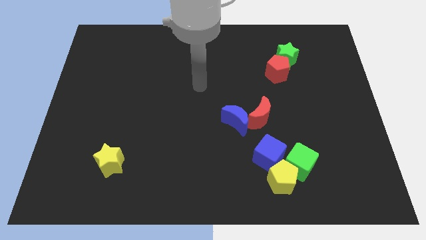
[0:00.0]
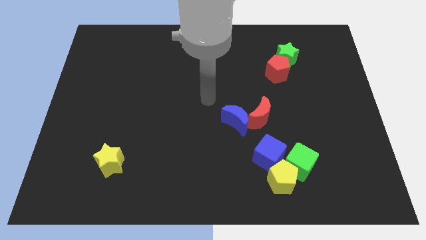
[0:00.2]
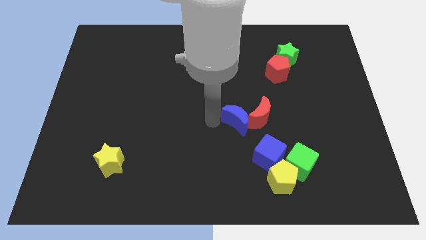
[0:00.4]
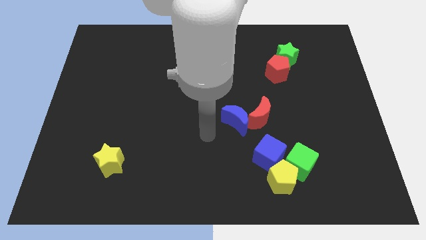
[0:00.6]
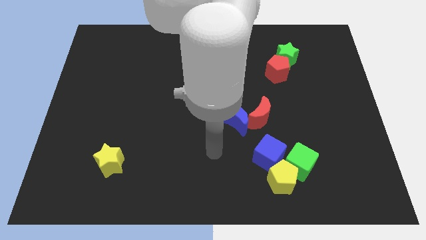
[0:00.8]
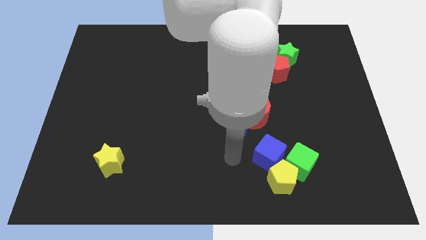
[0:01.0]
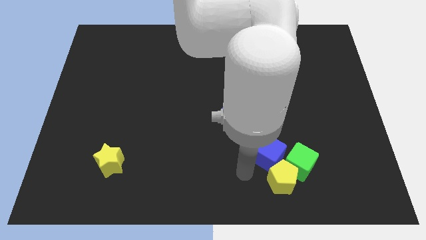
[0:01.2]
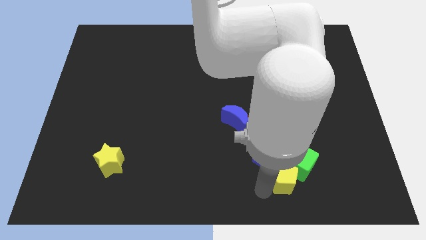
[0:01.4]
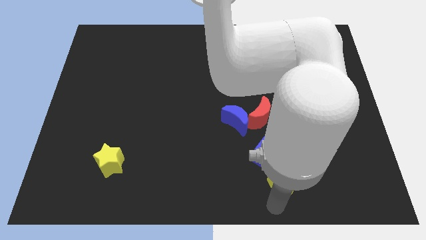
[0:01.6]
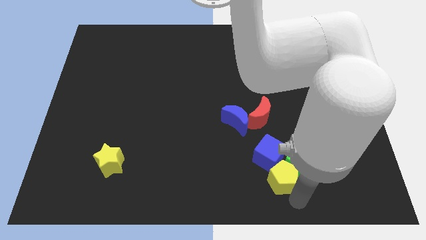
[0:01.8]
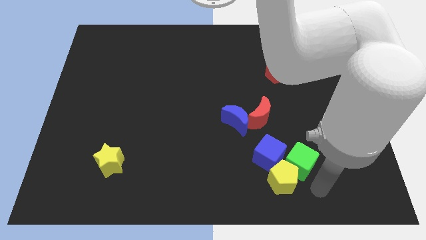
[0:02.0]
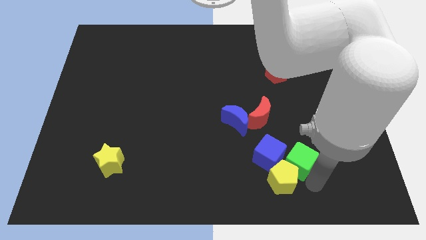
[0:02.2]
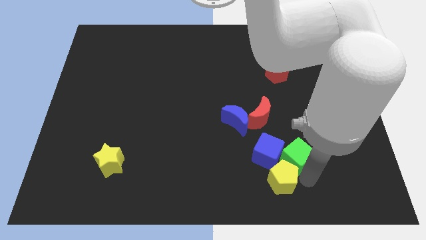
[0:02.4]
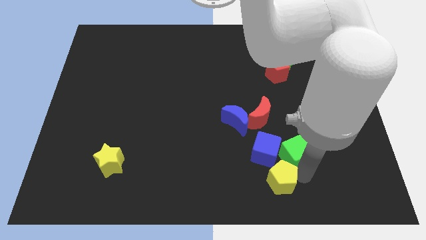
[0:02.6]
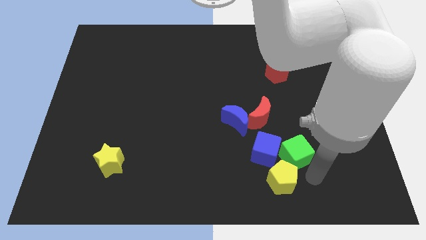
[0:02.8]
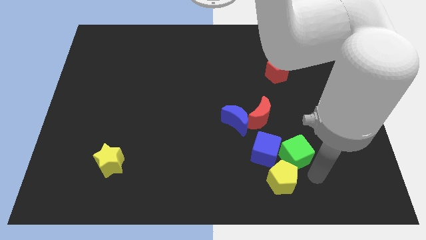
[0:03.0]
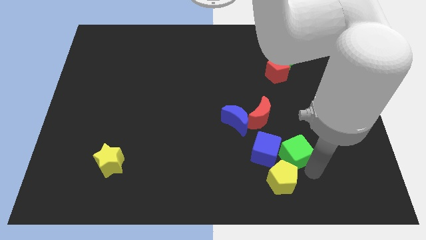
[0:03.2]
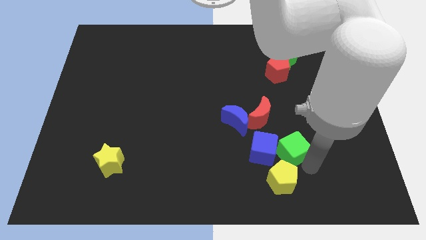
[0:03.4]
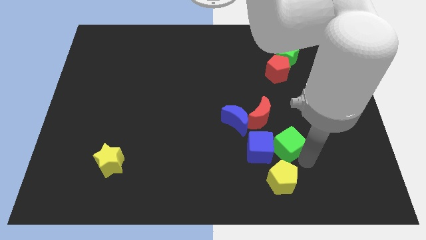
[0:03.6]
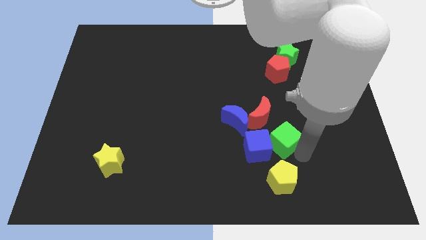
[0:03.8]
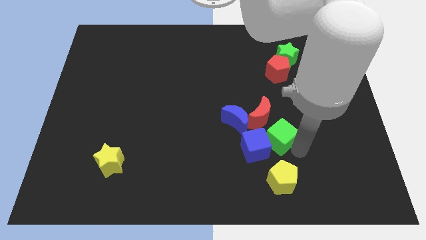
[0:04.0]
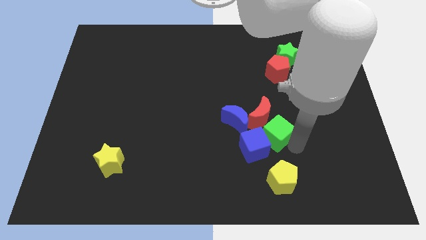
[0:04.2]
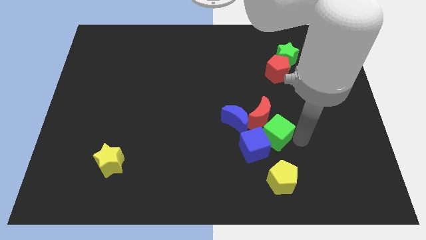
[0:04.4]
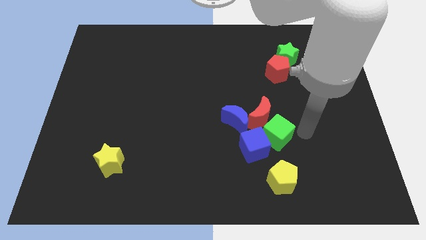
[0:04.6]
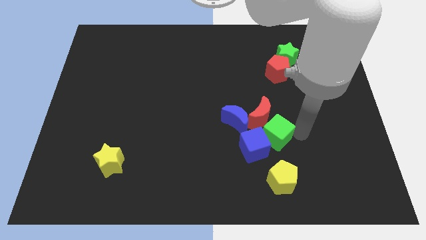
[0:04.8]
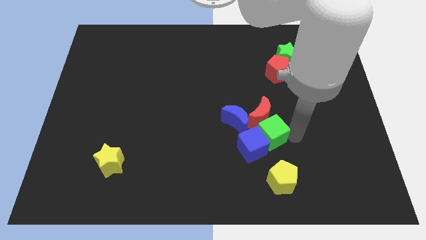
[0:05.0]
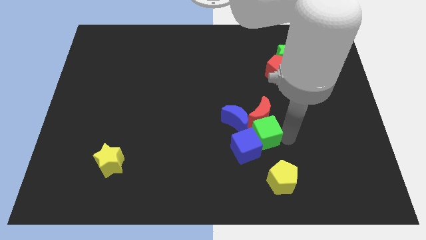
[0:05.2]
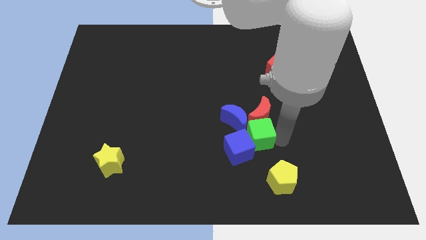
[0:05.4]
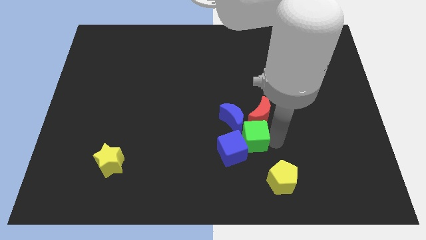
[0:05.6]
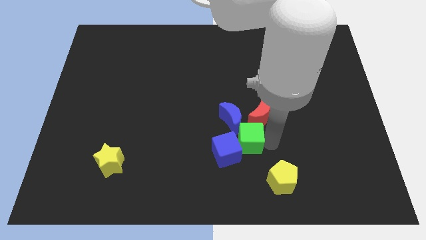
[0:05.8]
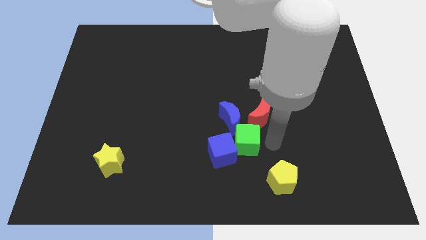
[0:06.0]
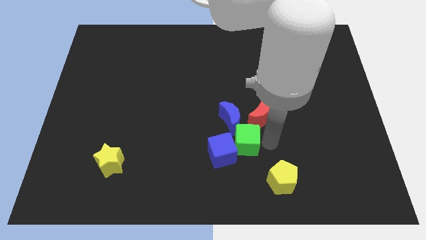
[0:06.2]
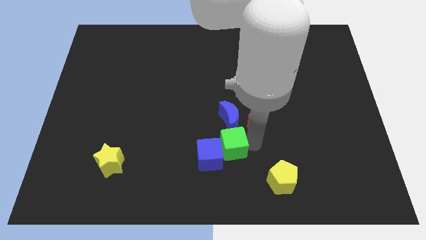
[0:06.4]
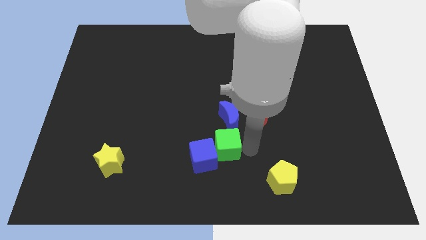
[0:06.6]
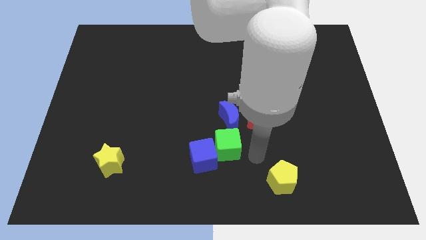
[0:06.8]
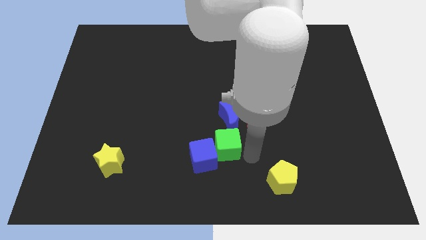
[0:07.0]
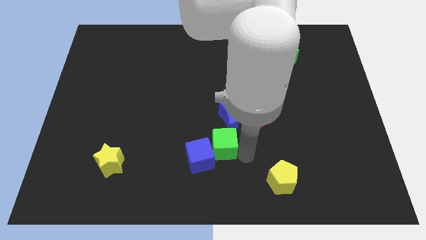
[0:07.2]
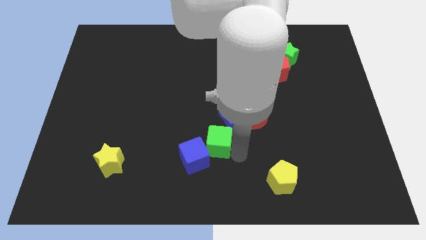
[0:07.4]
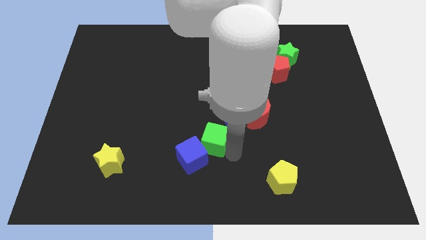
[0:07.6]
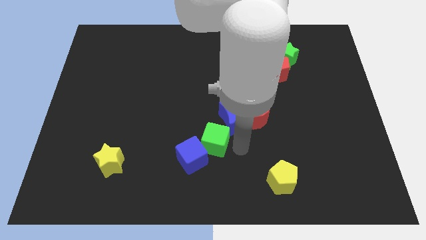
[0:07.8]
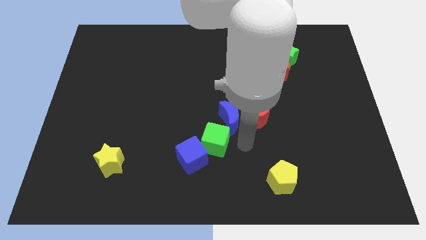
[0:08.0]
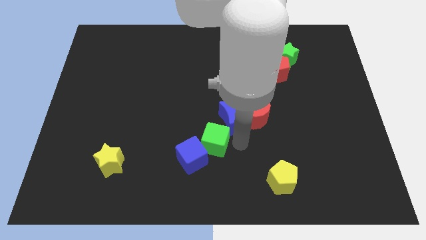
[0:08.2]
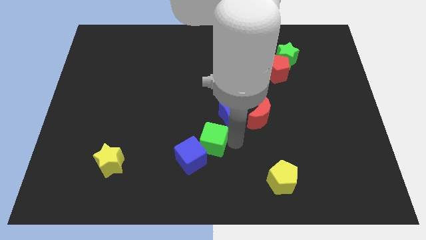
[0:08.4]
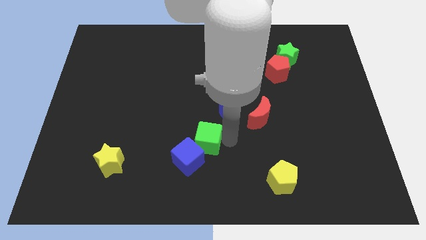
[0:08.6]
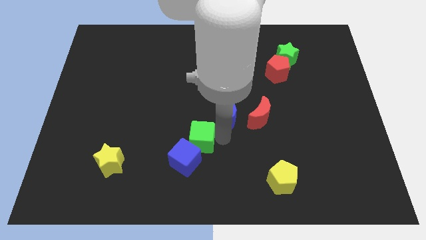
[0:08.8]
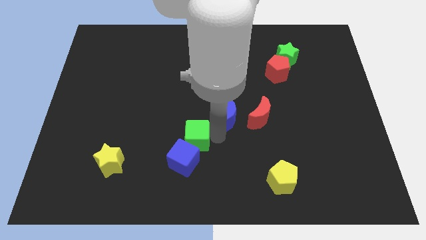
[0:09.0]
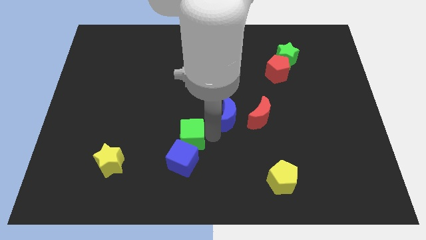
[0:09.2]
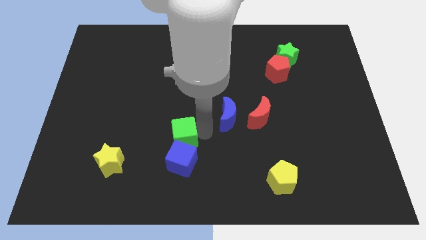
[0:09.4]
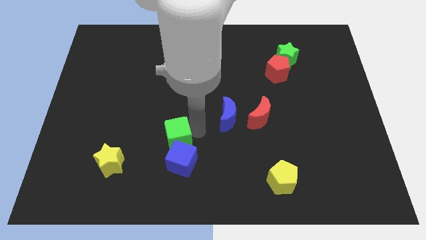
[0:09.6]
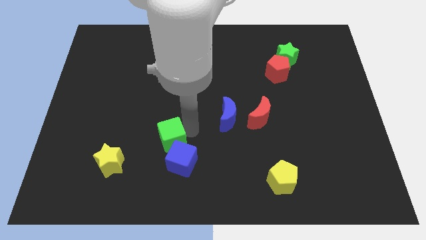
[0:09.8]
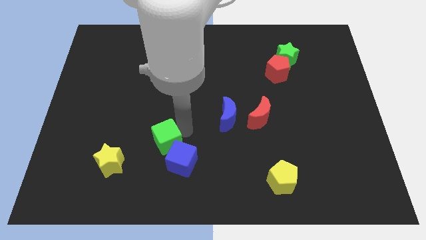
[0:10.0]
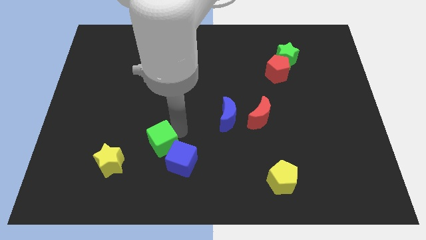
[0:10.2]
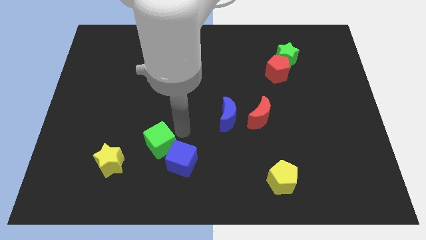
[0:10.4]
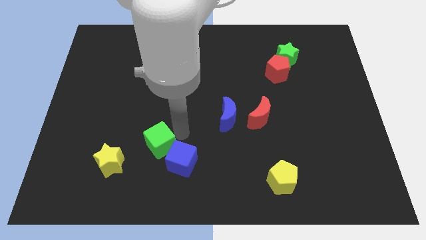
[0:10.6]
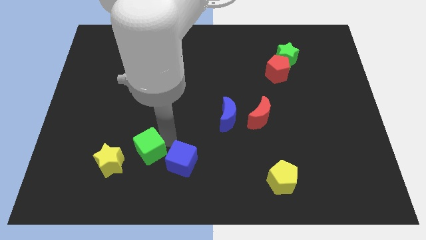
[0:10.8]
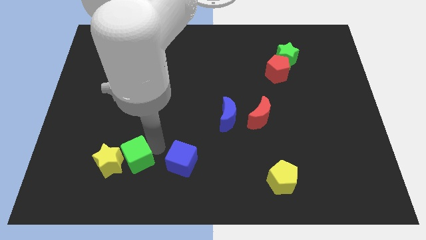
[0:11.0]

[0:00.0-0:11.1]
slide the green cube towards the yellow star

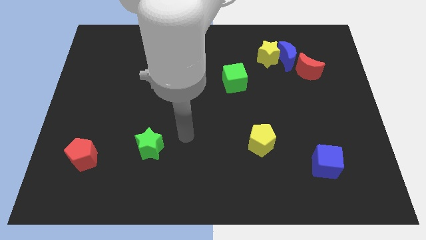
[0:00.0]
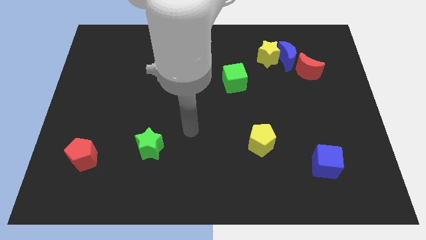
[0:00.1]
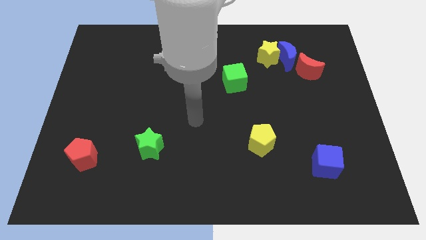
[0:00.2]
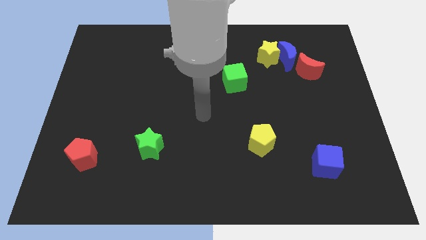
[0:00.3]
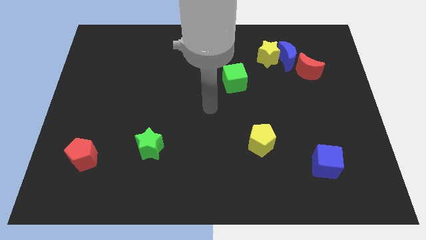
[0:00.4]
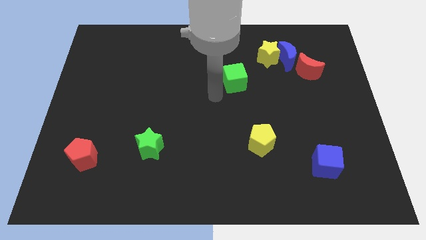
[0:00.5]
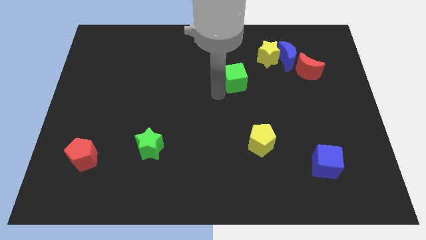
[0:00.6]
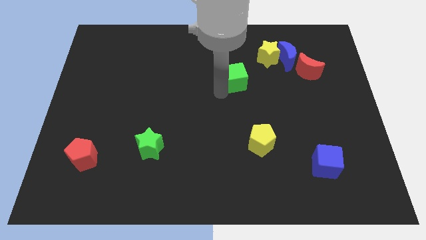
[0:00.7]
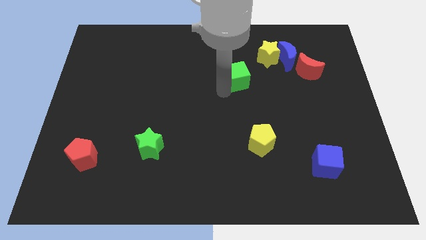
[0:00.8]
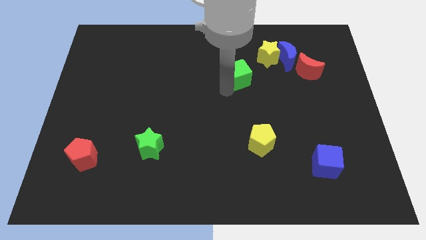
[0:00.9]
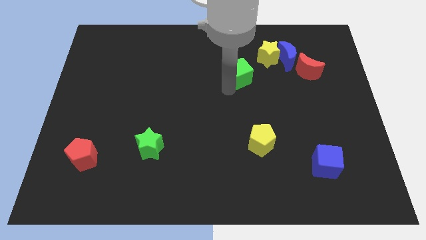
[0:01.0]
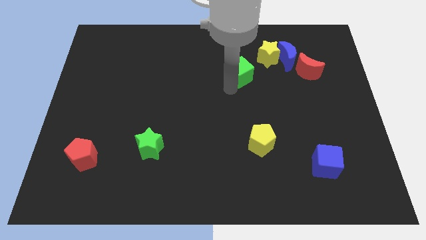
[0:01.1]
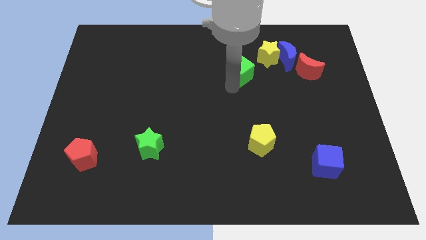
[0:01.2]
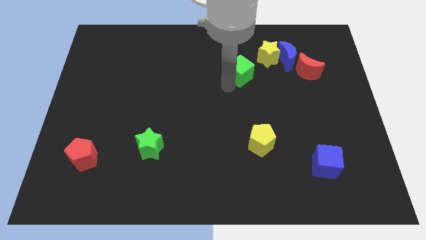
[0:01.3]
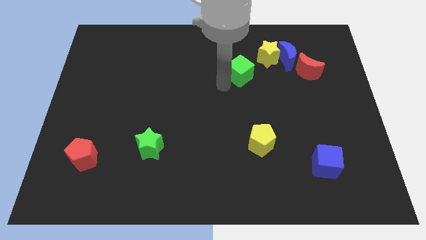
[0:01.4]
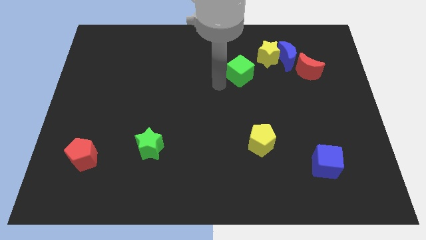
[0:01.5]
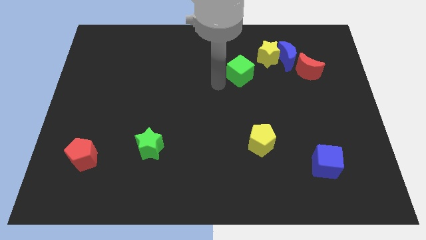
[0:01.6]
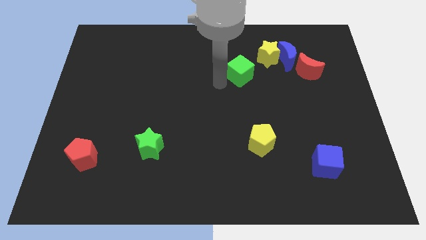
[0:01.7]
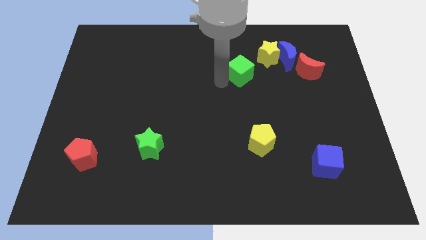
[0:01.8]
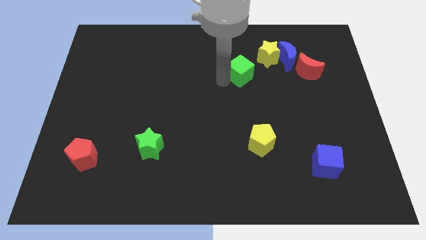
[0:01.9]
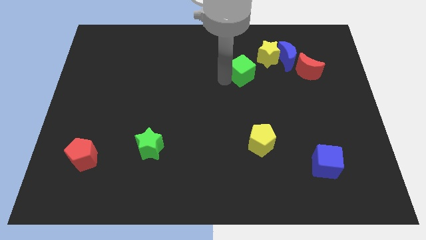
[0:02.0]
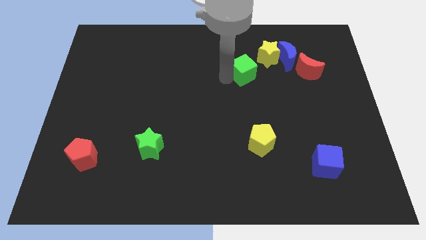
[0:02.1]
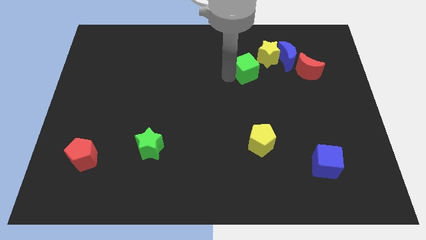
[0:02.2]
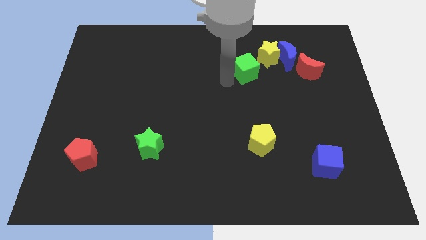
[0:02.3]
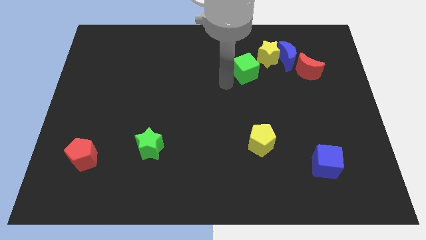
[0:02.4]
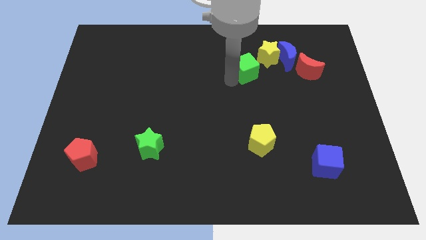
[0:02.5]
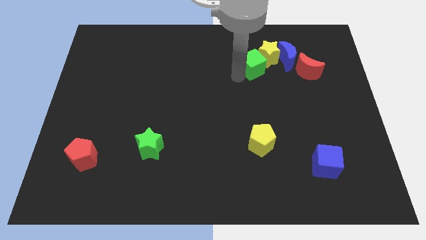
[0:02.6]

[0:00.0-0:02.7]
slide the green cube close to the yellow star
